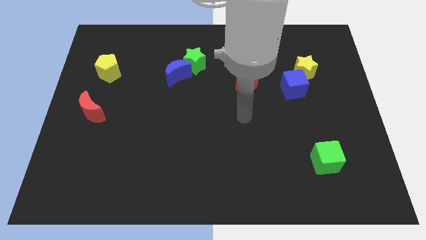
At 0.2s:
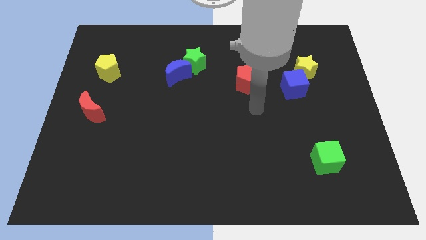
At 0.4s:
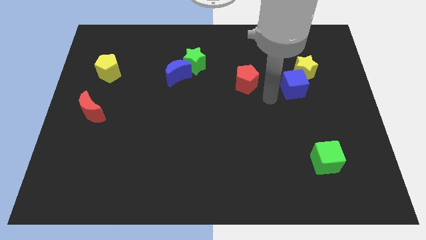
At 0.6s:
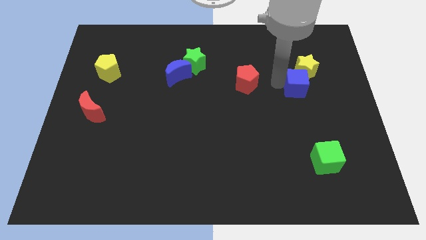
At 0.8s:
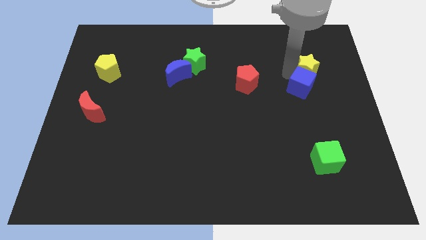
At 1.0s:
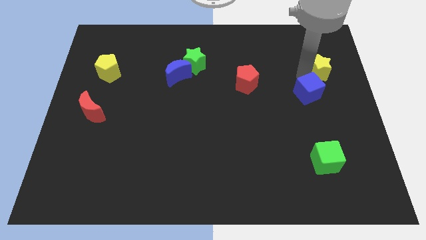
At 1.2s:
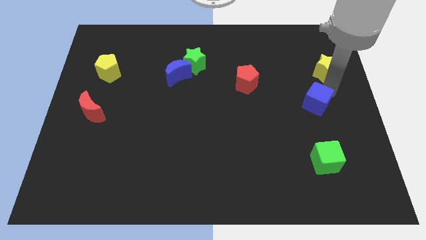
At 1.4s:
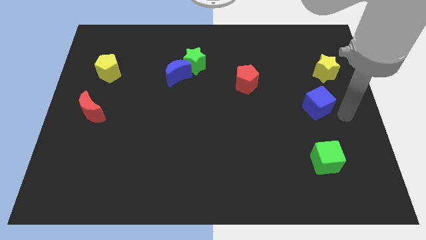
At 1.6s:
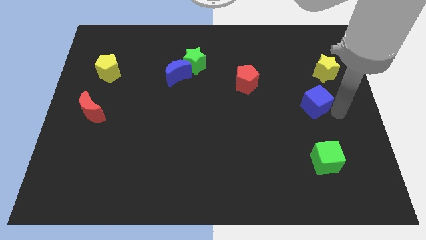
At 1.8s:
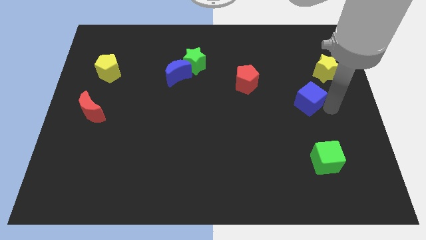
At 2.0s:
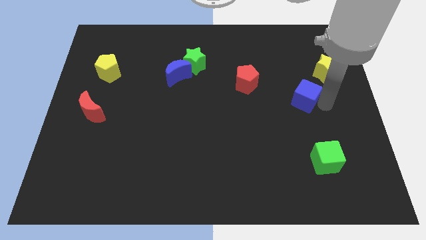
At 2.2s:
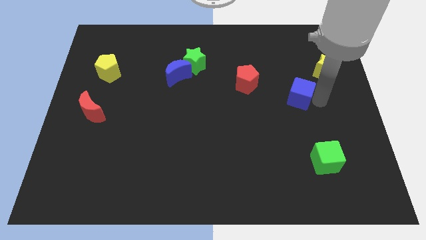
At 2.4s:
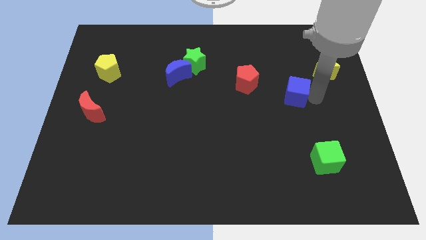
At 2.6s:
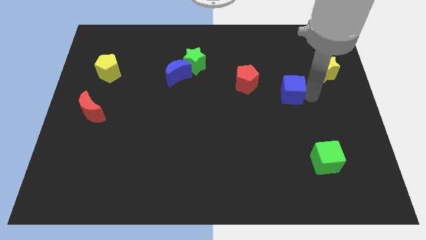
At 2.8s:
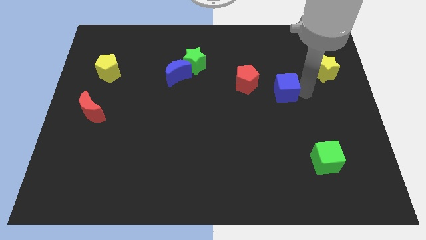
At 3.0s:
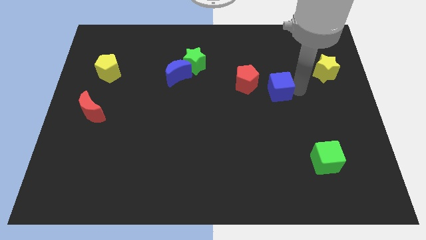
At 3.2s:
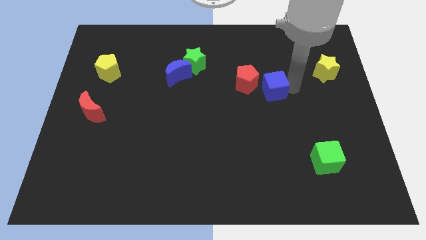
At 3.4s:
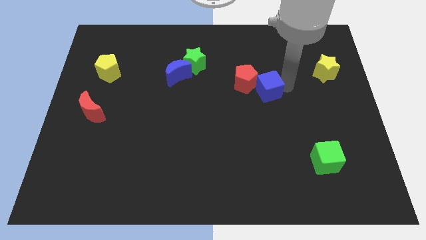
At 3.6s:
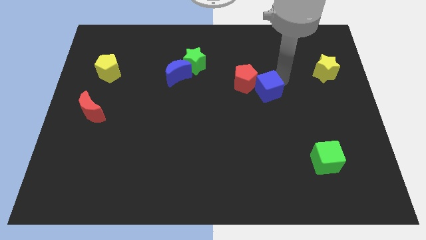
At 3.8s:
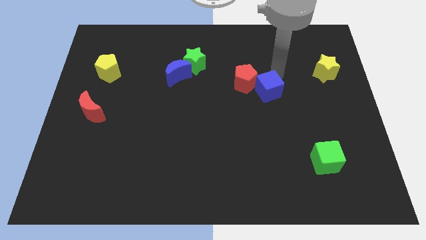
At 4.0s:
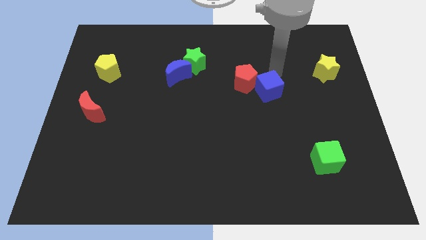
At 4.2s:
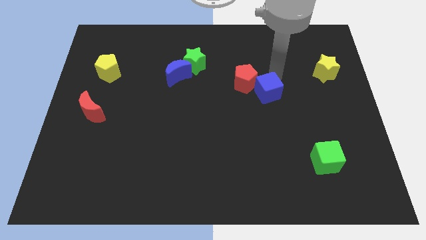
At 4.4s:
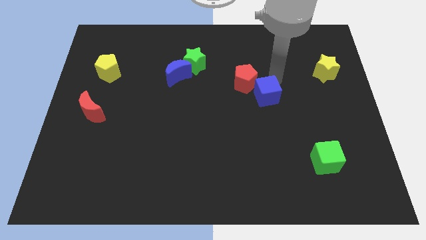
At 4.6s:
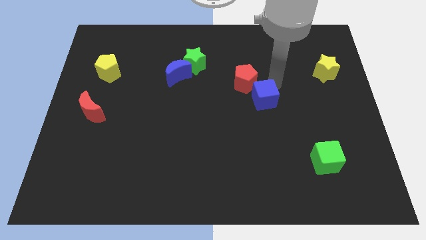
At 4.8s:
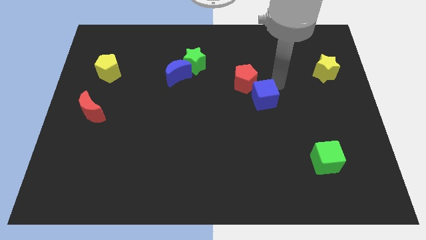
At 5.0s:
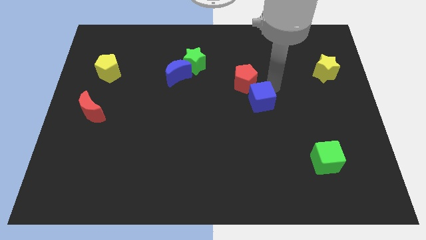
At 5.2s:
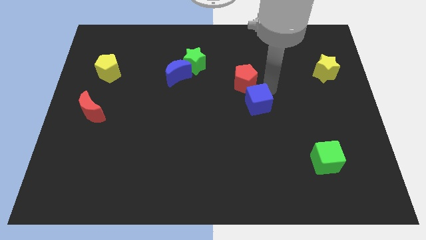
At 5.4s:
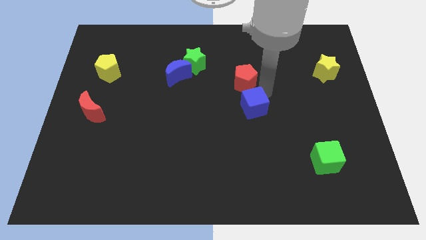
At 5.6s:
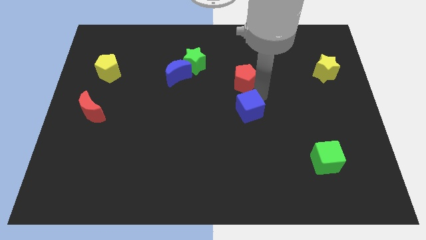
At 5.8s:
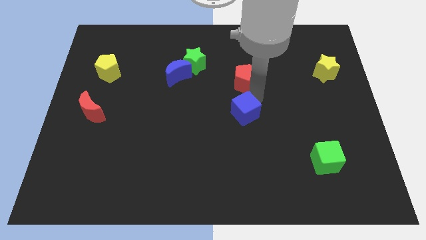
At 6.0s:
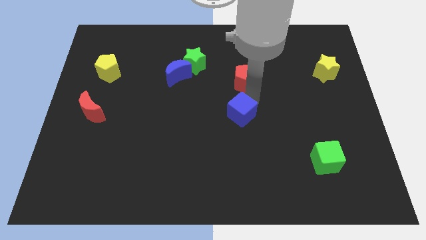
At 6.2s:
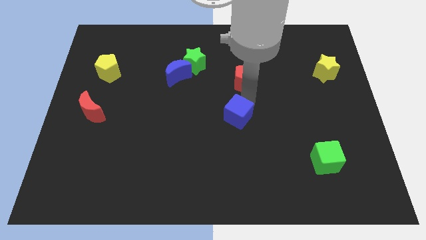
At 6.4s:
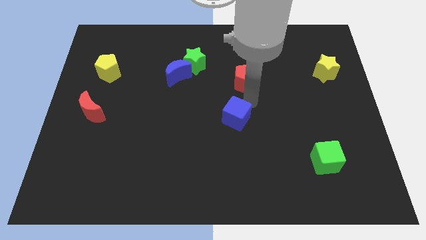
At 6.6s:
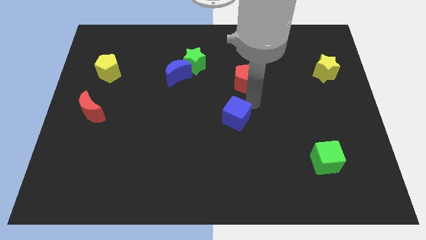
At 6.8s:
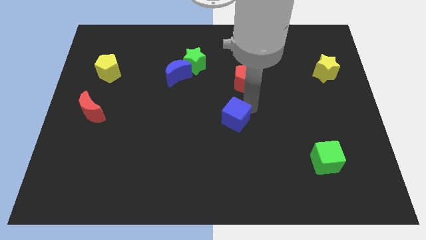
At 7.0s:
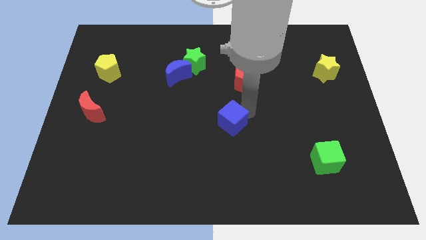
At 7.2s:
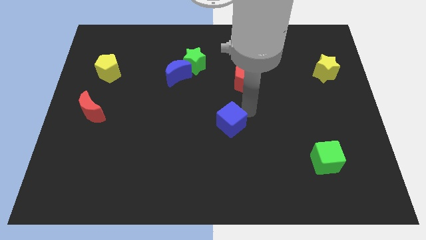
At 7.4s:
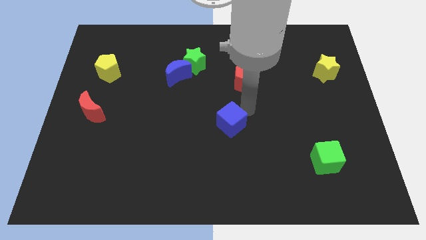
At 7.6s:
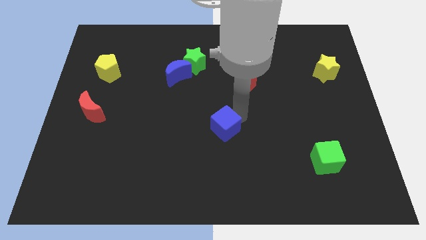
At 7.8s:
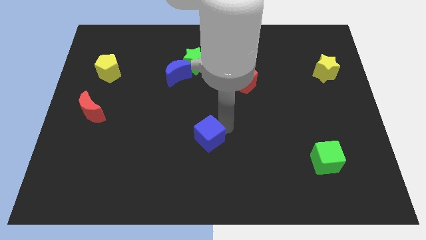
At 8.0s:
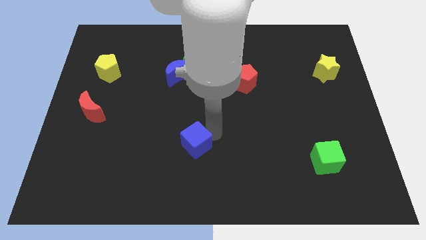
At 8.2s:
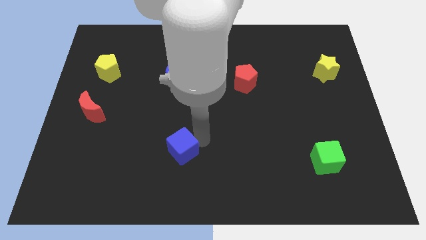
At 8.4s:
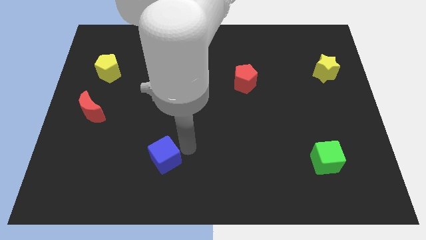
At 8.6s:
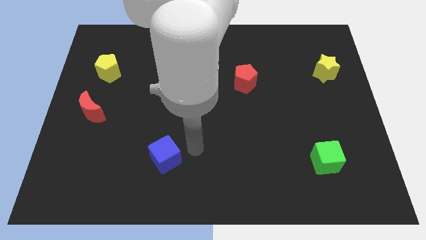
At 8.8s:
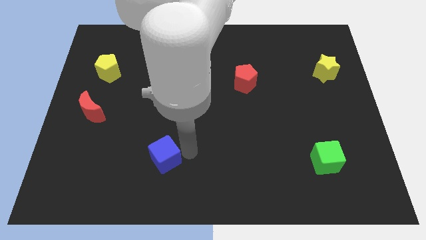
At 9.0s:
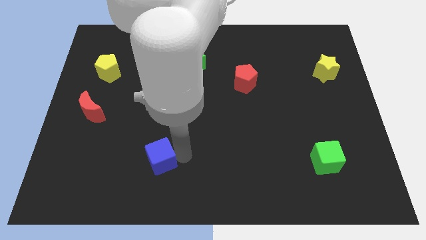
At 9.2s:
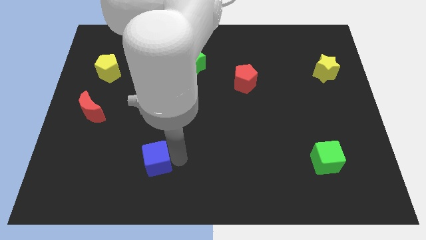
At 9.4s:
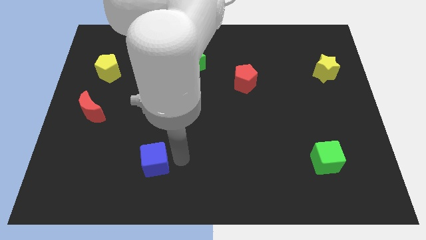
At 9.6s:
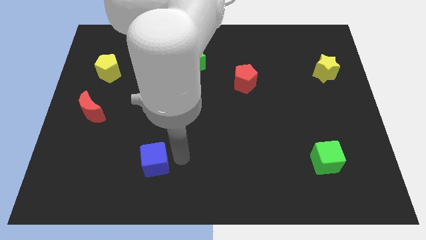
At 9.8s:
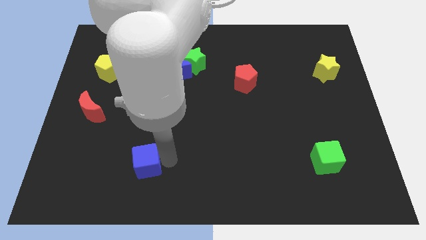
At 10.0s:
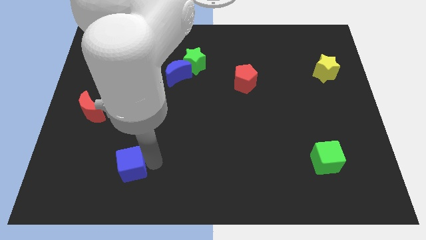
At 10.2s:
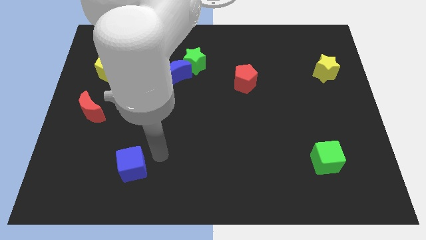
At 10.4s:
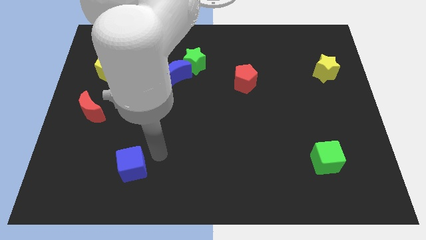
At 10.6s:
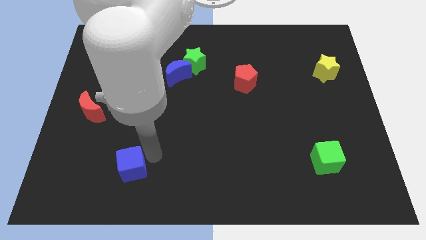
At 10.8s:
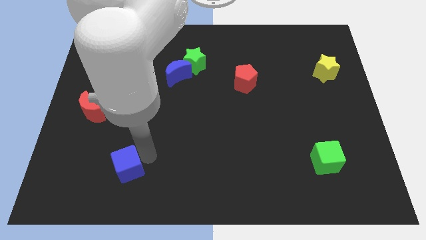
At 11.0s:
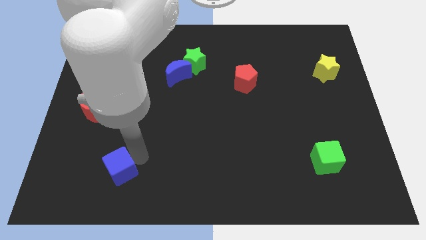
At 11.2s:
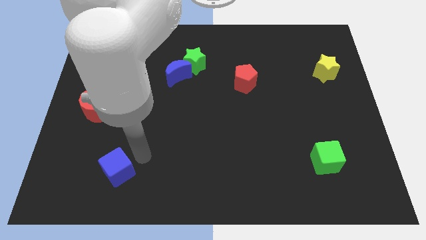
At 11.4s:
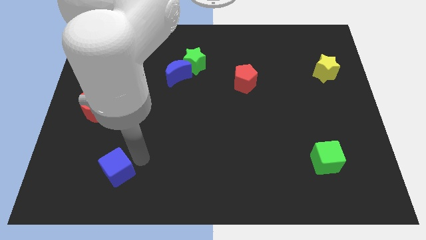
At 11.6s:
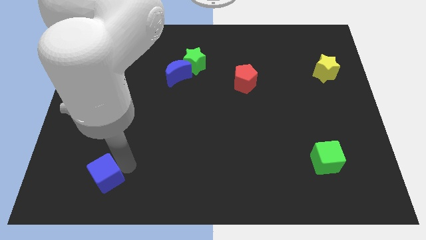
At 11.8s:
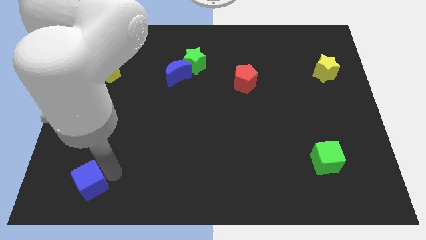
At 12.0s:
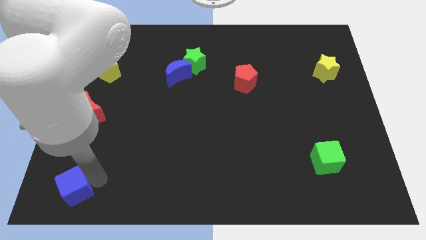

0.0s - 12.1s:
slide the blue cube to the lower left corner

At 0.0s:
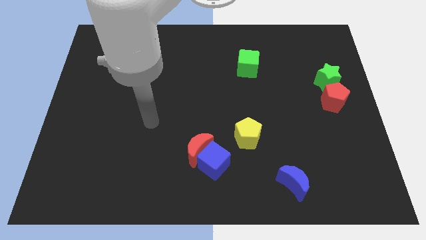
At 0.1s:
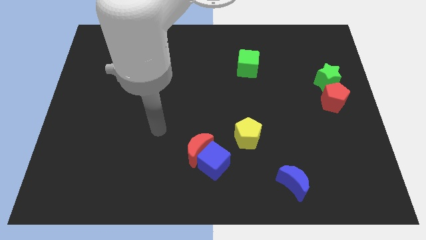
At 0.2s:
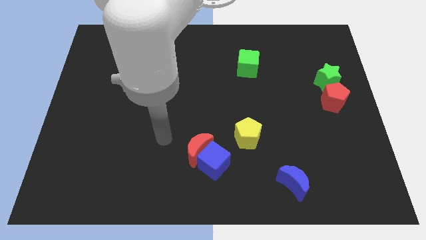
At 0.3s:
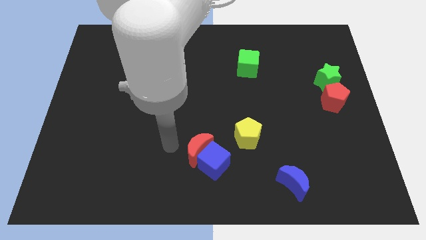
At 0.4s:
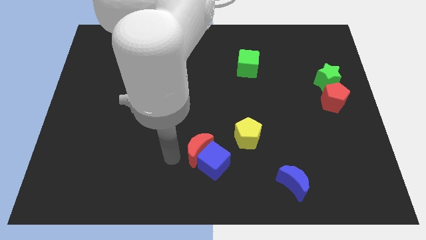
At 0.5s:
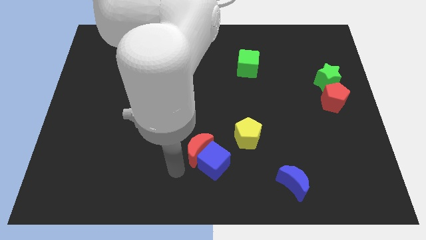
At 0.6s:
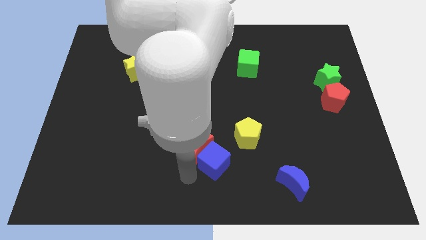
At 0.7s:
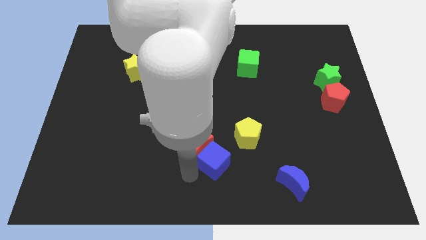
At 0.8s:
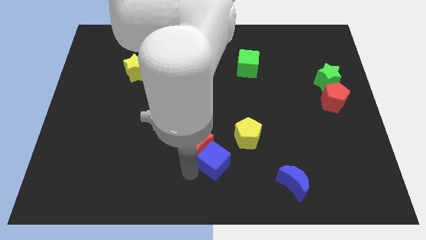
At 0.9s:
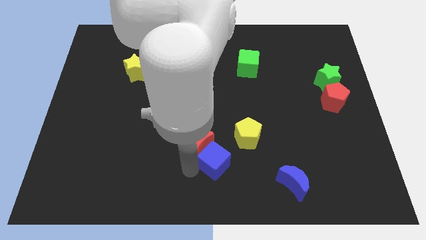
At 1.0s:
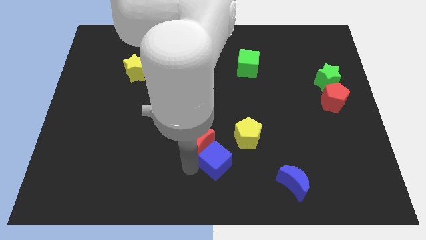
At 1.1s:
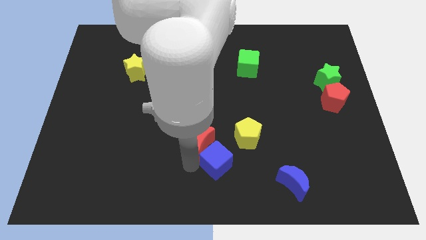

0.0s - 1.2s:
move the red moon to the center of the board
